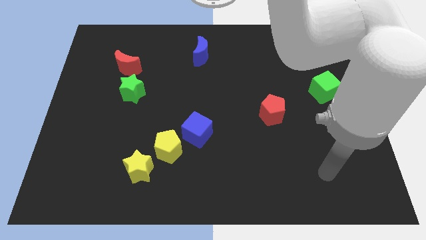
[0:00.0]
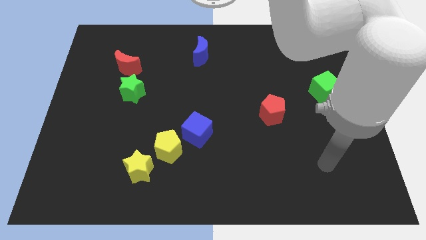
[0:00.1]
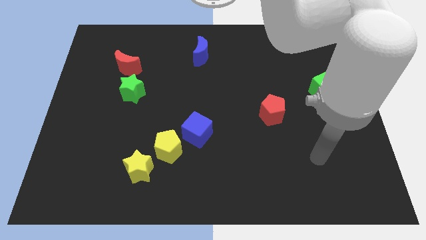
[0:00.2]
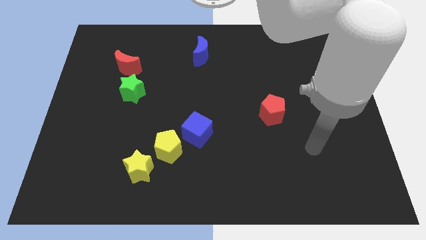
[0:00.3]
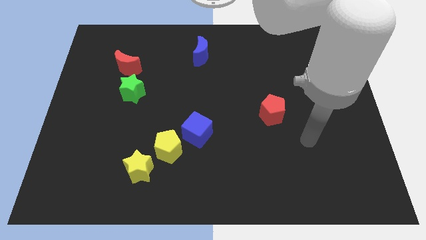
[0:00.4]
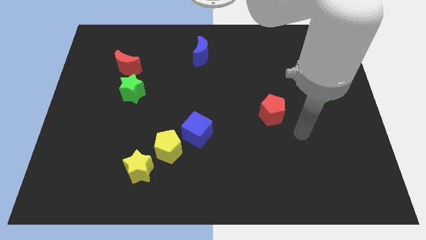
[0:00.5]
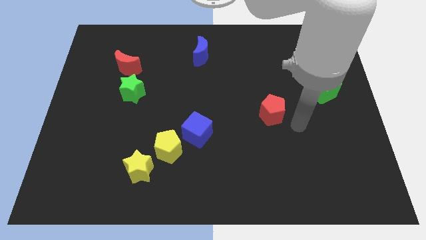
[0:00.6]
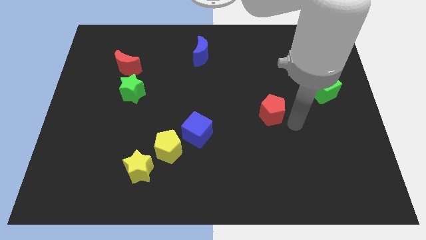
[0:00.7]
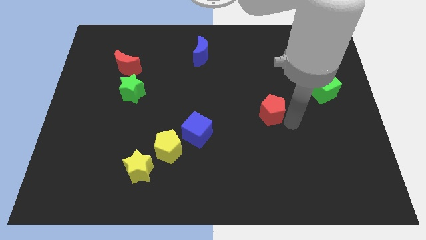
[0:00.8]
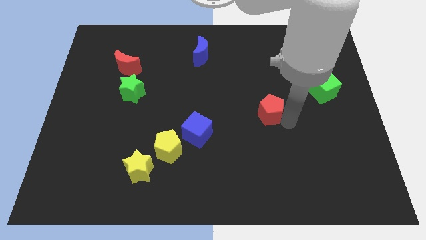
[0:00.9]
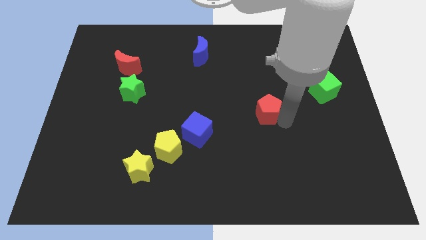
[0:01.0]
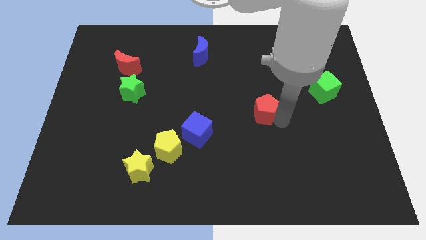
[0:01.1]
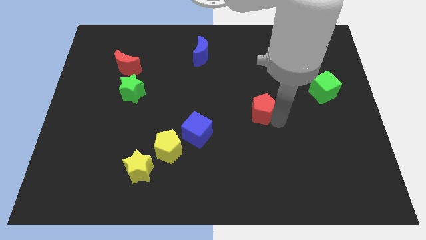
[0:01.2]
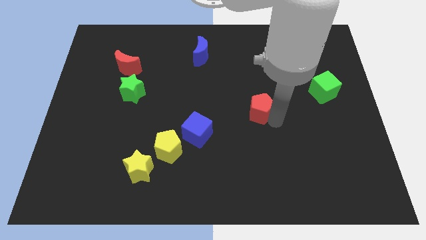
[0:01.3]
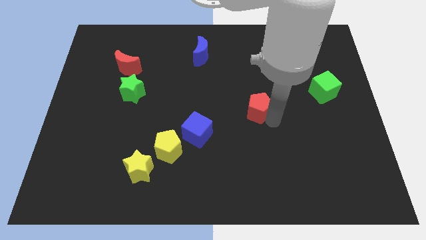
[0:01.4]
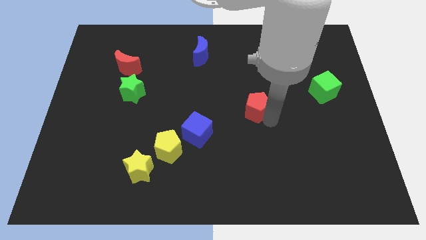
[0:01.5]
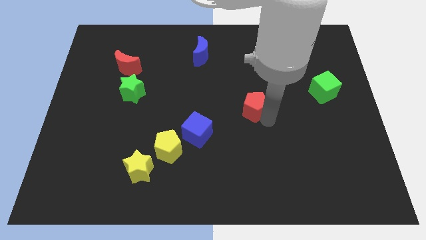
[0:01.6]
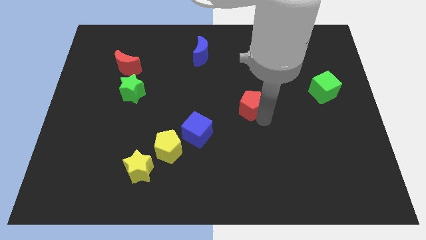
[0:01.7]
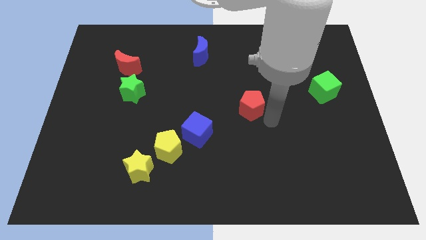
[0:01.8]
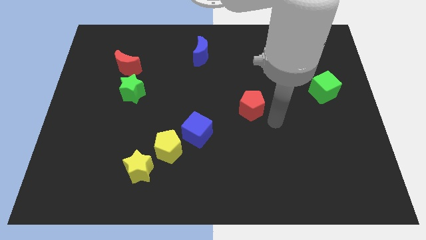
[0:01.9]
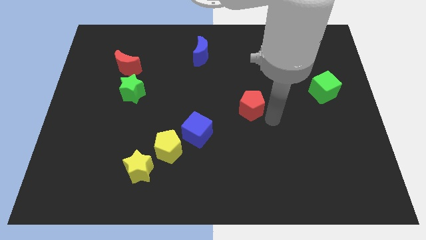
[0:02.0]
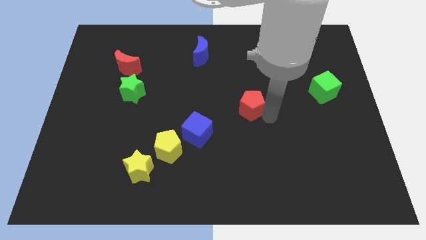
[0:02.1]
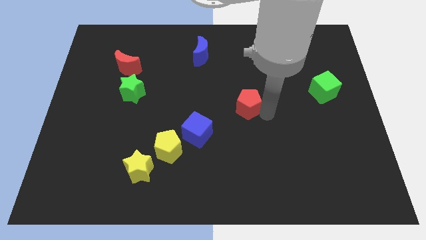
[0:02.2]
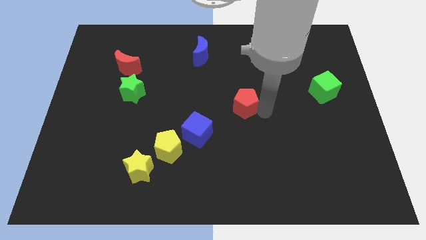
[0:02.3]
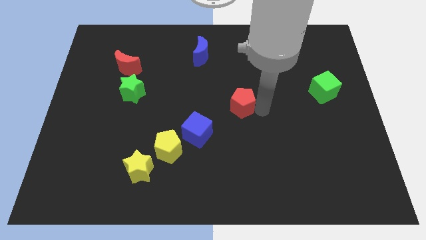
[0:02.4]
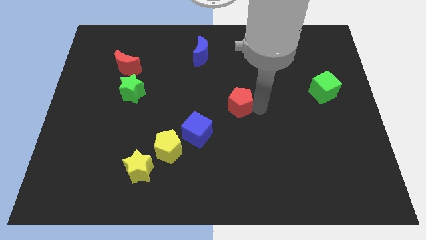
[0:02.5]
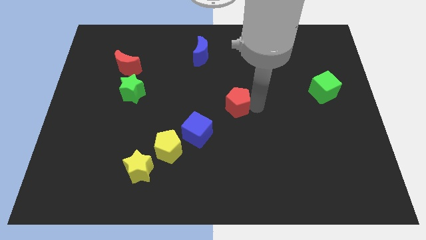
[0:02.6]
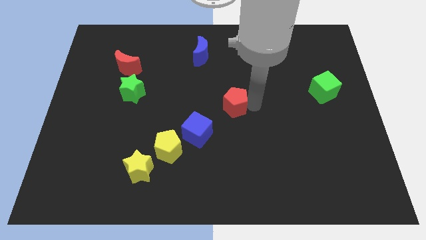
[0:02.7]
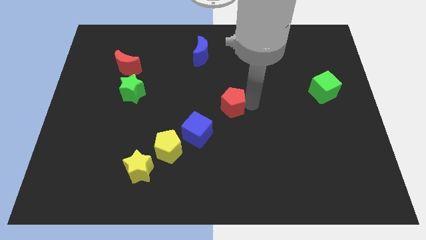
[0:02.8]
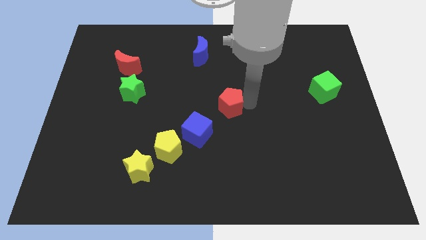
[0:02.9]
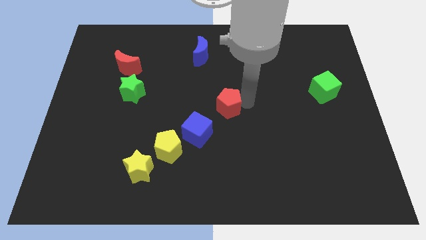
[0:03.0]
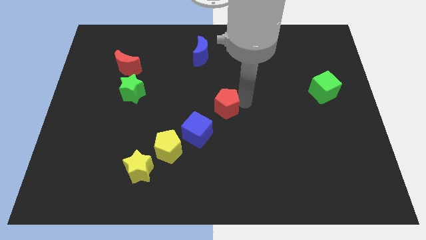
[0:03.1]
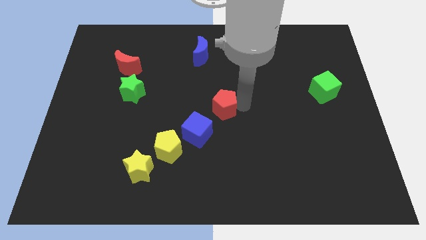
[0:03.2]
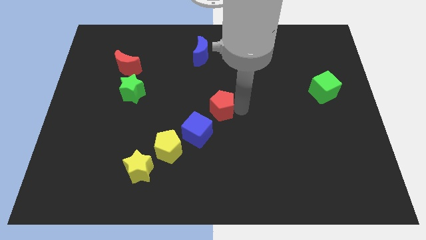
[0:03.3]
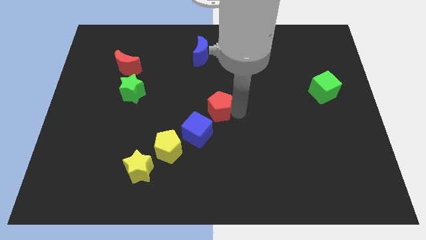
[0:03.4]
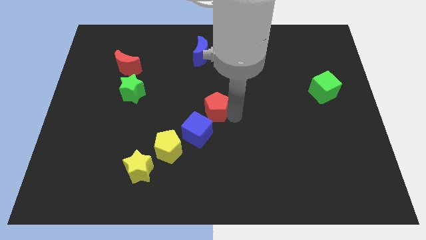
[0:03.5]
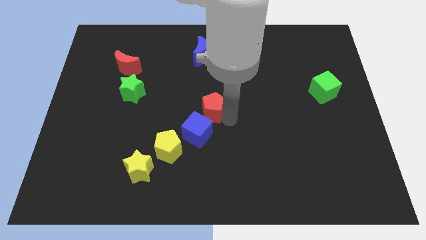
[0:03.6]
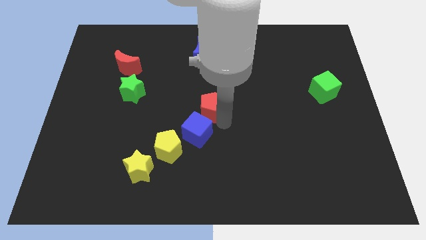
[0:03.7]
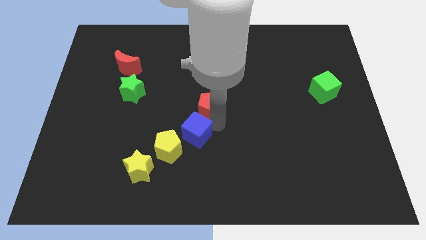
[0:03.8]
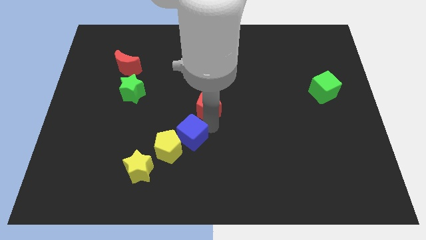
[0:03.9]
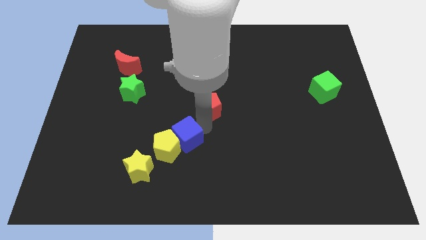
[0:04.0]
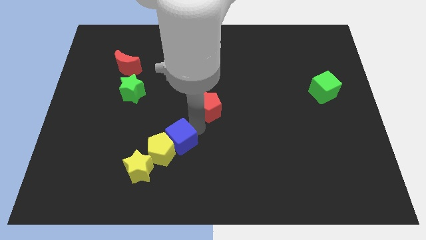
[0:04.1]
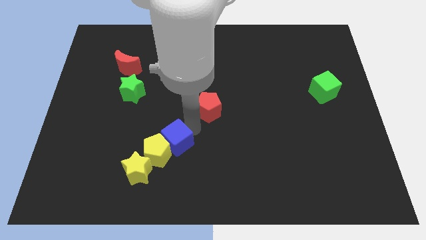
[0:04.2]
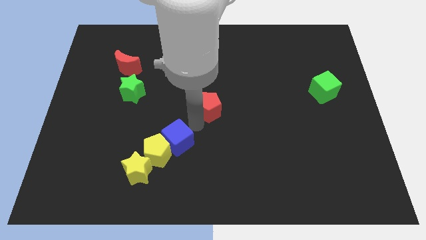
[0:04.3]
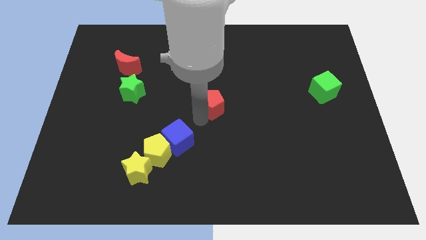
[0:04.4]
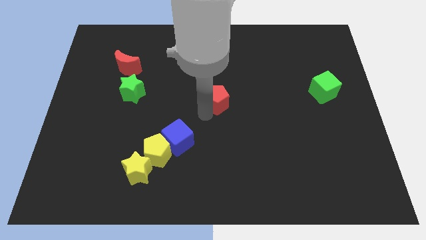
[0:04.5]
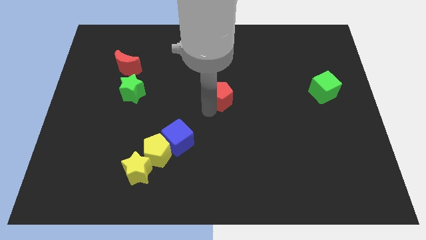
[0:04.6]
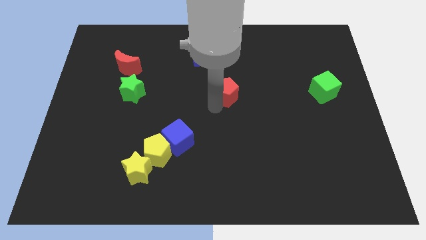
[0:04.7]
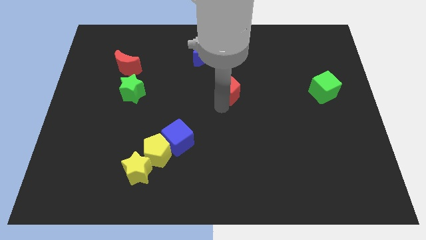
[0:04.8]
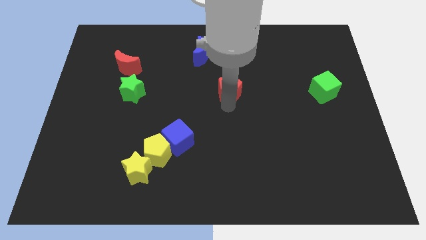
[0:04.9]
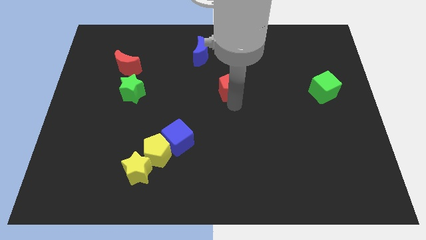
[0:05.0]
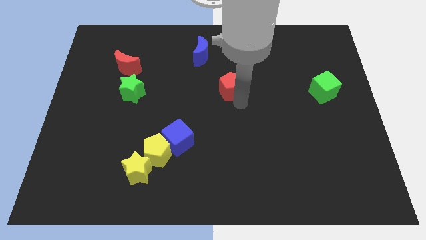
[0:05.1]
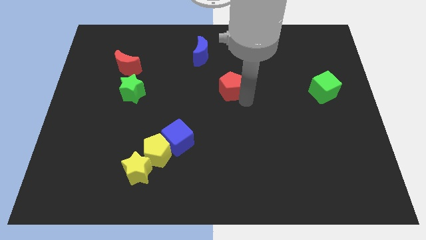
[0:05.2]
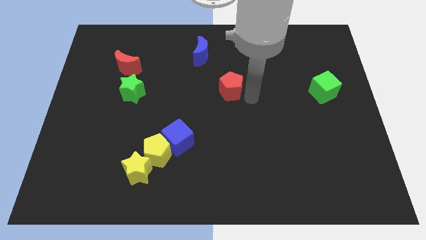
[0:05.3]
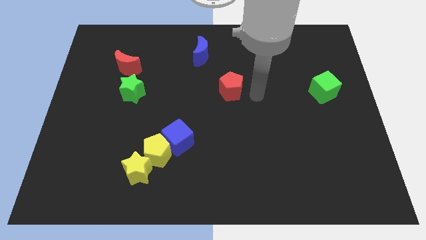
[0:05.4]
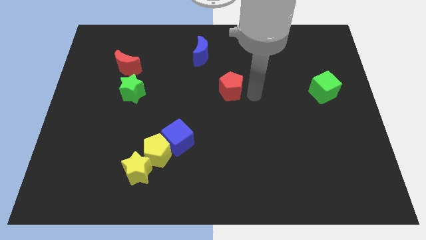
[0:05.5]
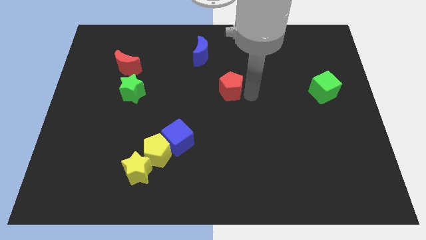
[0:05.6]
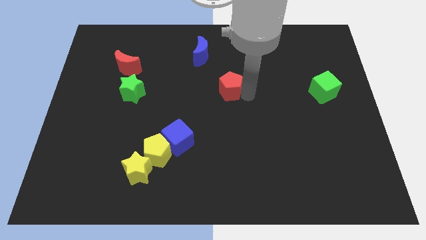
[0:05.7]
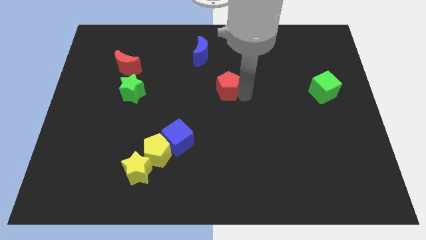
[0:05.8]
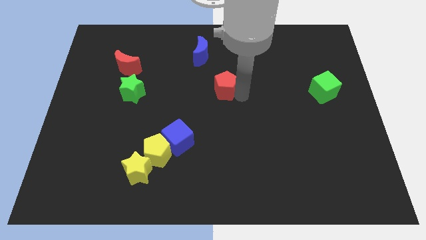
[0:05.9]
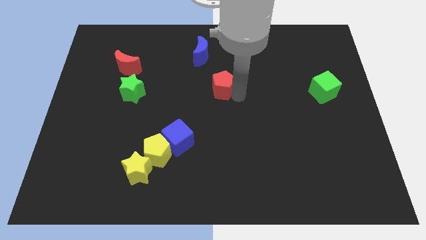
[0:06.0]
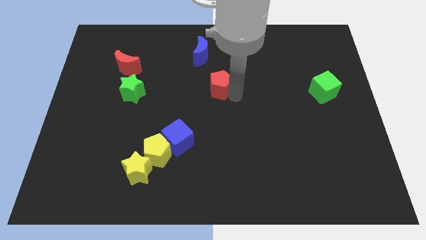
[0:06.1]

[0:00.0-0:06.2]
move the red pentagon below the blue moon
